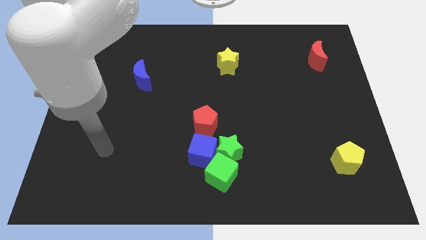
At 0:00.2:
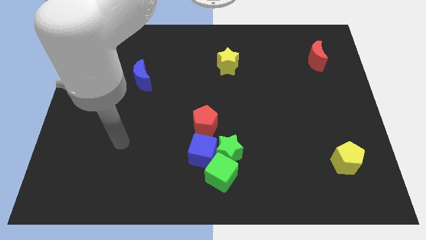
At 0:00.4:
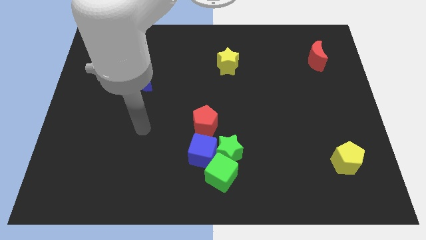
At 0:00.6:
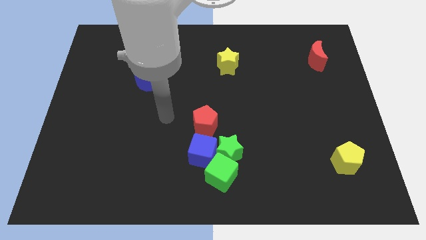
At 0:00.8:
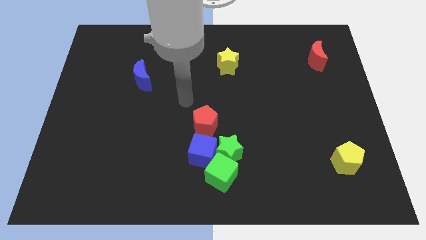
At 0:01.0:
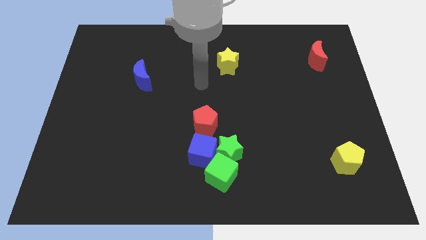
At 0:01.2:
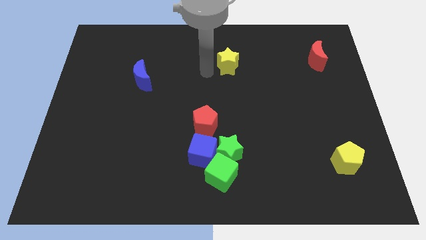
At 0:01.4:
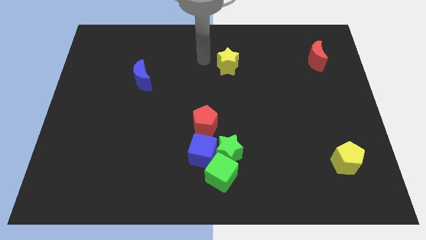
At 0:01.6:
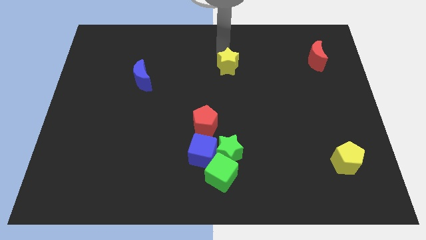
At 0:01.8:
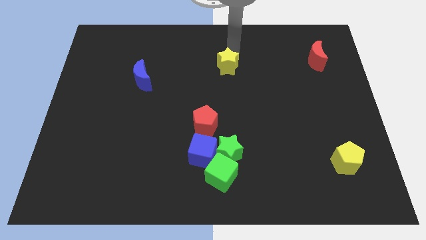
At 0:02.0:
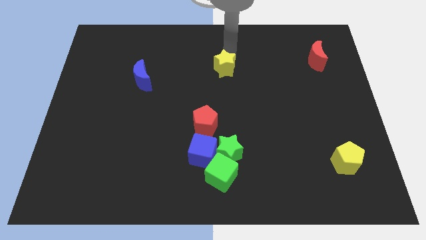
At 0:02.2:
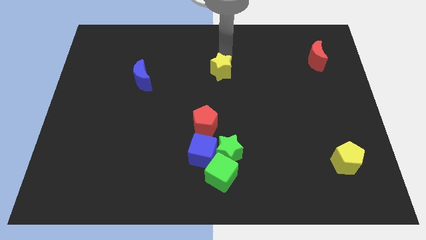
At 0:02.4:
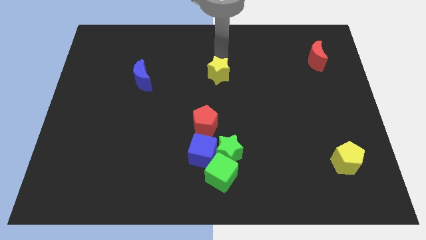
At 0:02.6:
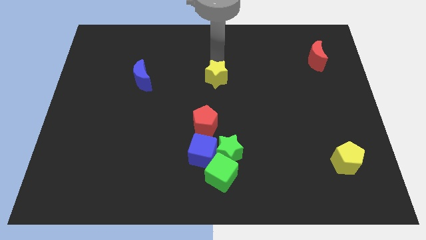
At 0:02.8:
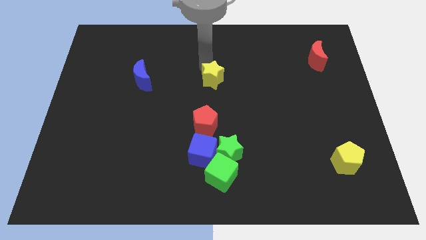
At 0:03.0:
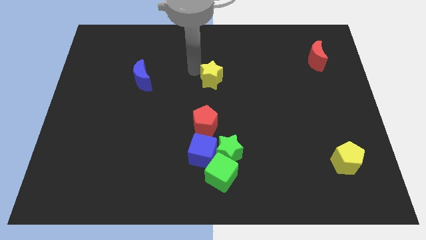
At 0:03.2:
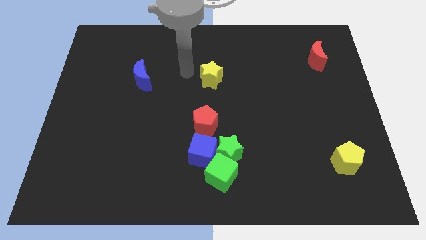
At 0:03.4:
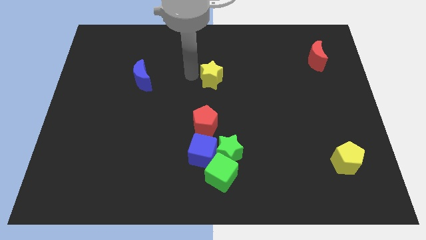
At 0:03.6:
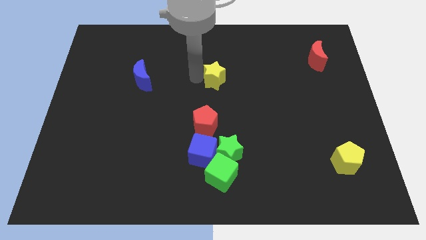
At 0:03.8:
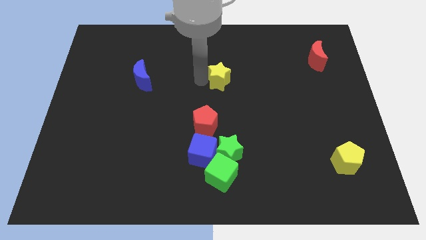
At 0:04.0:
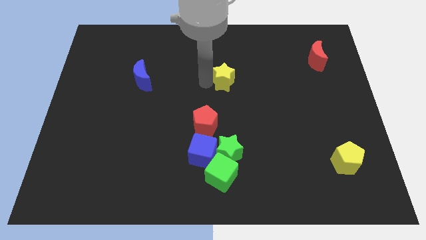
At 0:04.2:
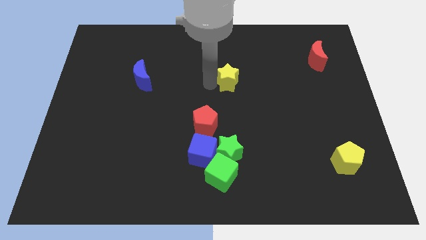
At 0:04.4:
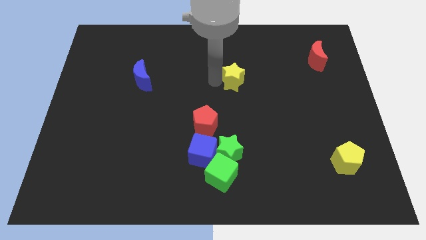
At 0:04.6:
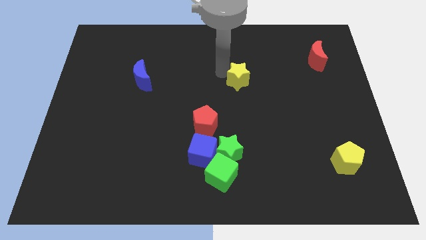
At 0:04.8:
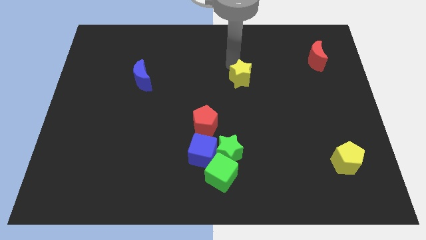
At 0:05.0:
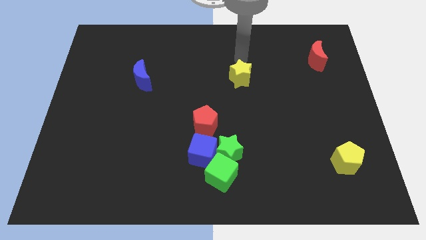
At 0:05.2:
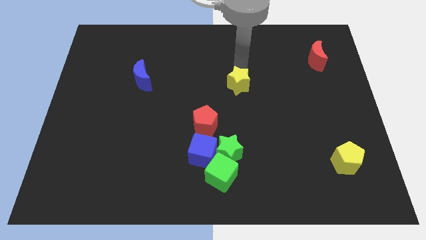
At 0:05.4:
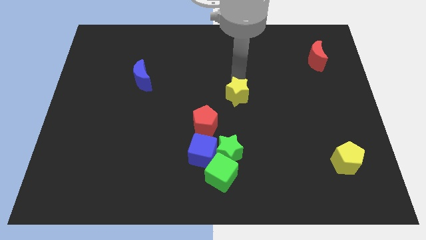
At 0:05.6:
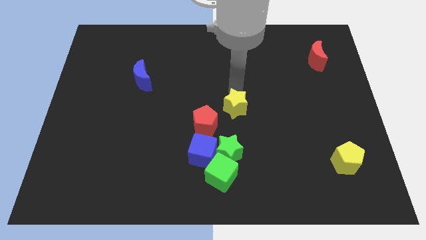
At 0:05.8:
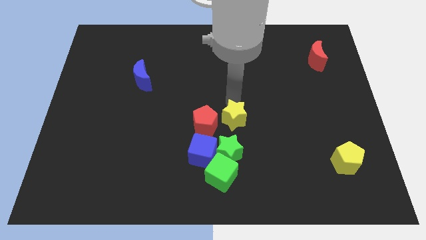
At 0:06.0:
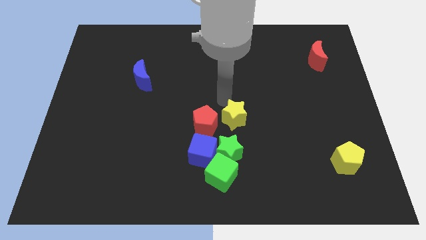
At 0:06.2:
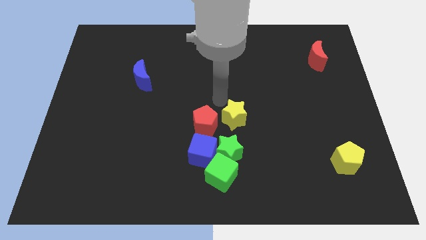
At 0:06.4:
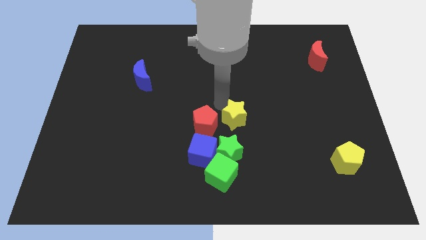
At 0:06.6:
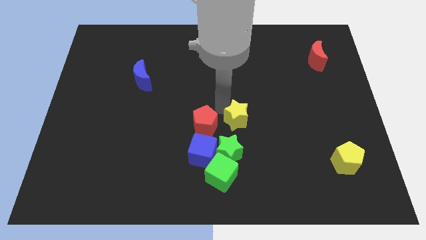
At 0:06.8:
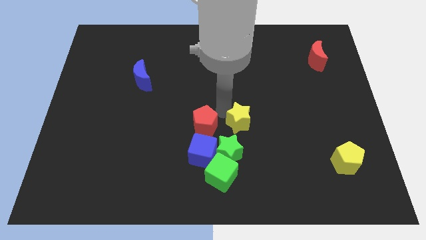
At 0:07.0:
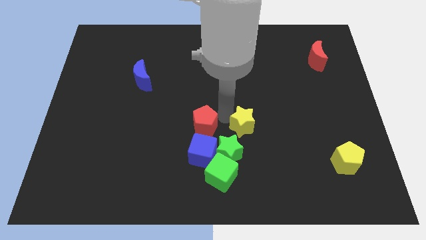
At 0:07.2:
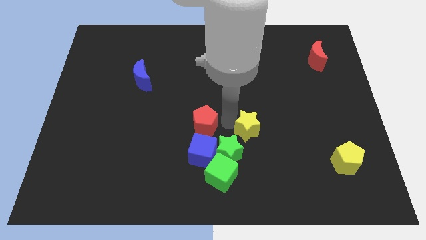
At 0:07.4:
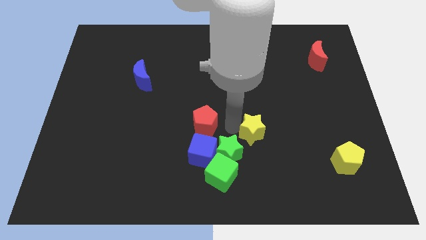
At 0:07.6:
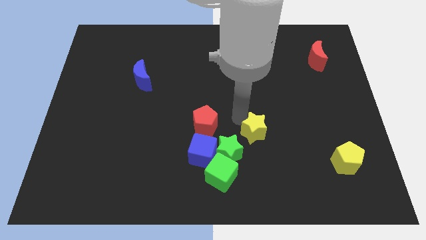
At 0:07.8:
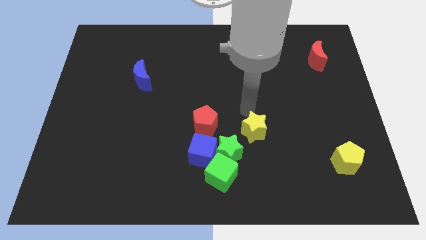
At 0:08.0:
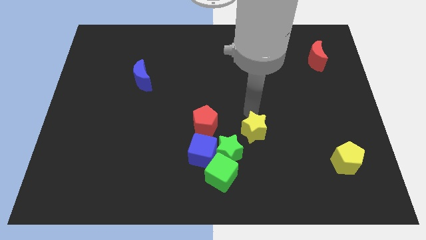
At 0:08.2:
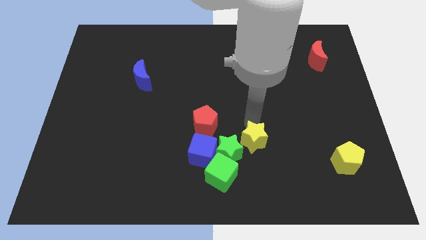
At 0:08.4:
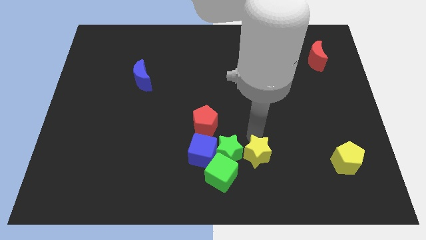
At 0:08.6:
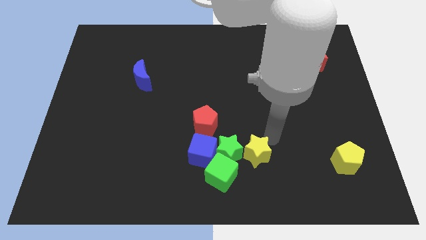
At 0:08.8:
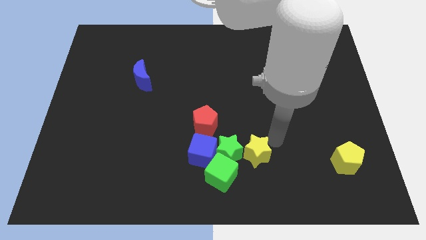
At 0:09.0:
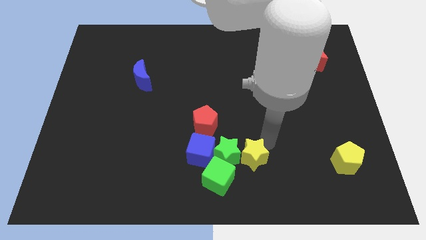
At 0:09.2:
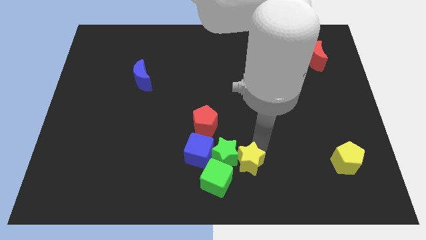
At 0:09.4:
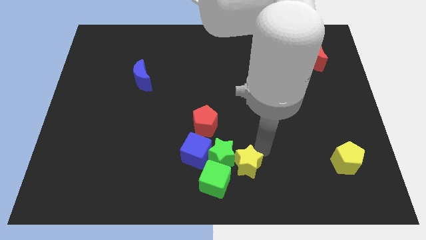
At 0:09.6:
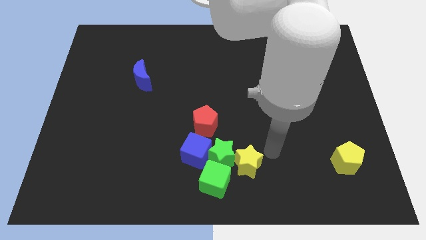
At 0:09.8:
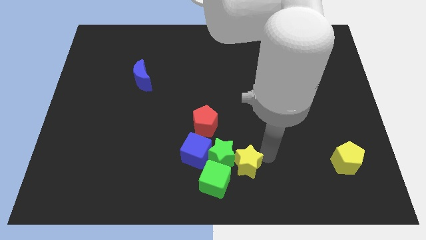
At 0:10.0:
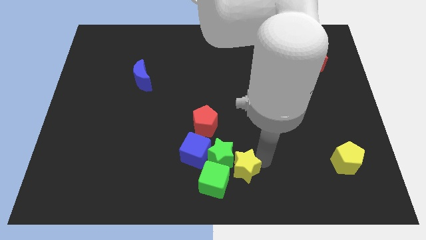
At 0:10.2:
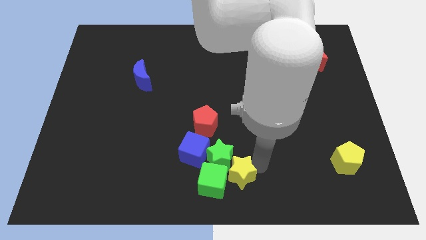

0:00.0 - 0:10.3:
put the yellow star next to the green cube

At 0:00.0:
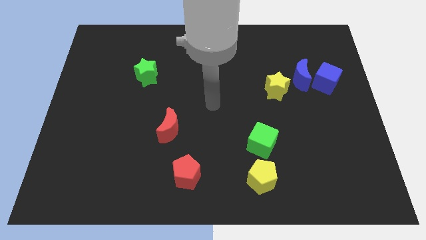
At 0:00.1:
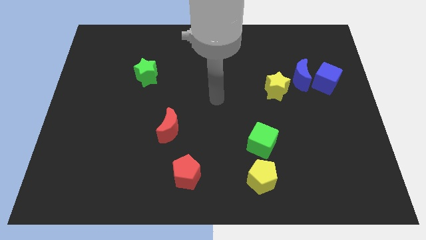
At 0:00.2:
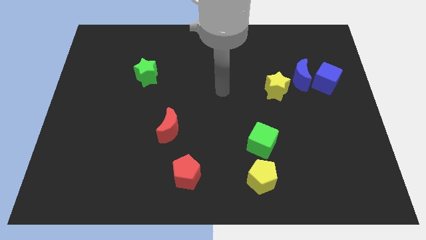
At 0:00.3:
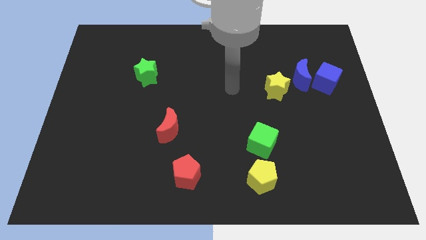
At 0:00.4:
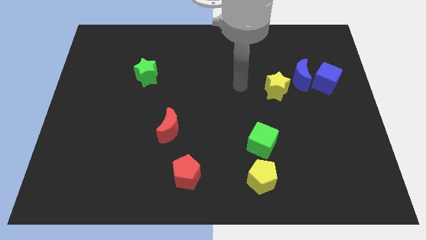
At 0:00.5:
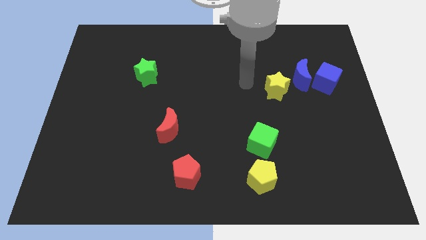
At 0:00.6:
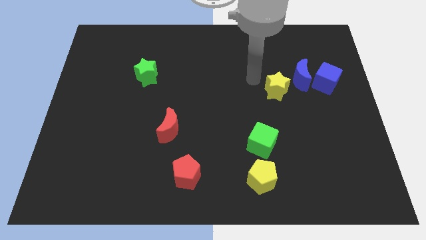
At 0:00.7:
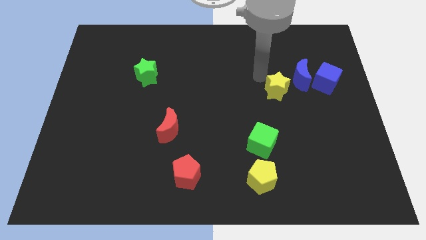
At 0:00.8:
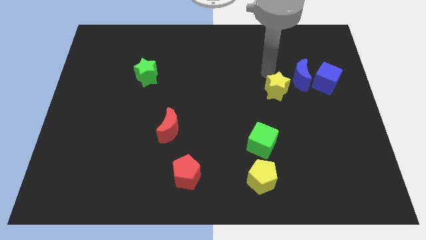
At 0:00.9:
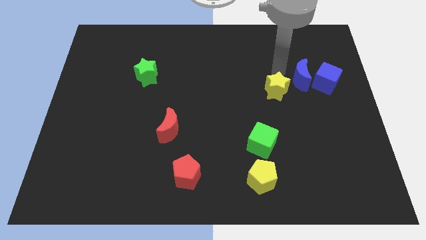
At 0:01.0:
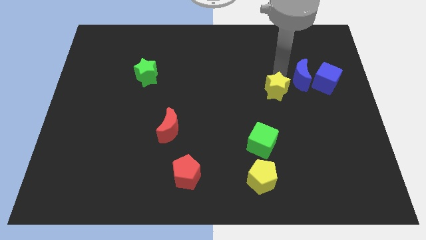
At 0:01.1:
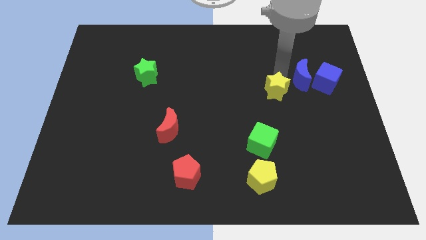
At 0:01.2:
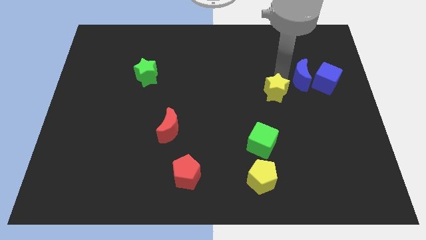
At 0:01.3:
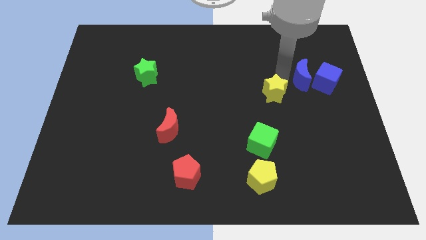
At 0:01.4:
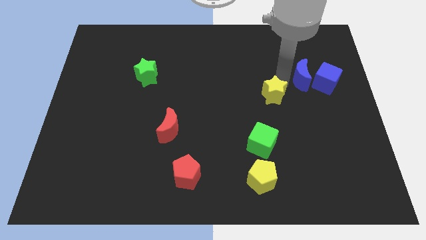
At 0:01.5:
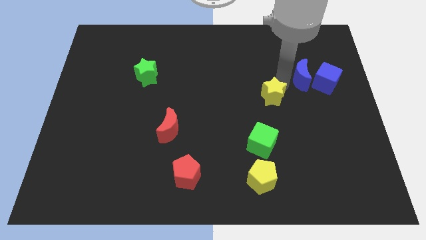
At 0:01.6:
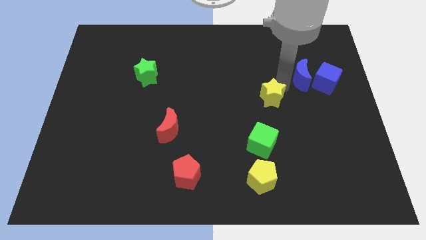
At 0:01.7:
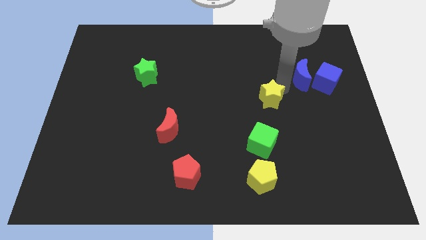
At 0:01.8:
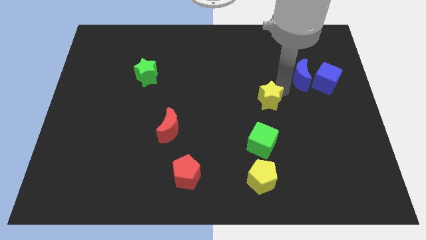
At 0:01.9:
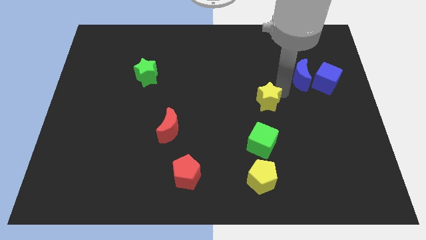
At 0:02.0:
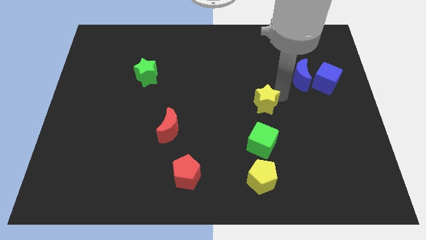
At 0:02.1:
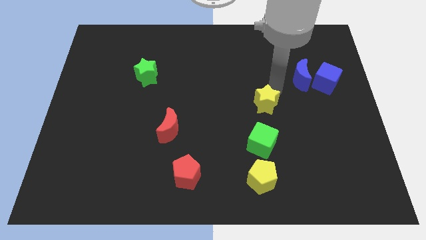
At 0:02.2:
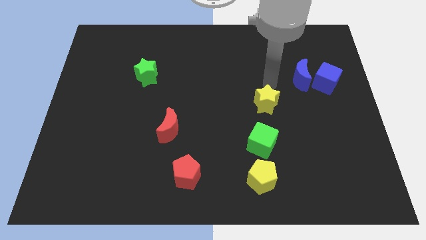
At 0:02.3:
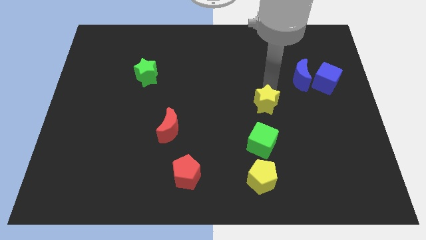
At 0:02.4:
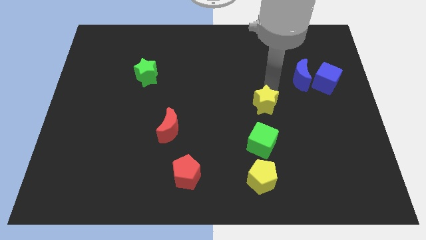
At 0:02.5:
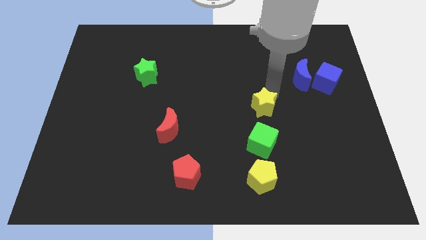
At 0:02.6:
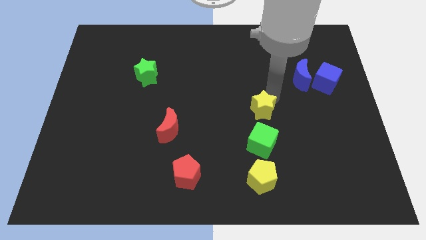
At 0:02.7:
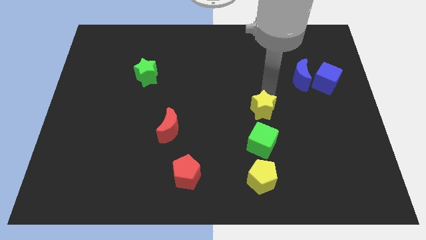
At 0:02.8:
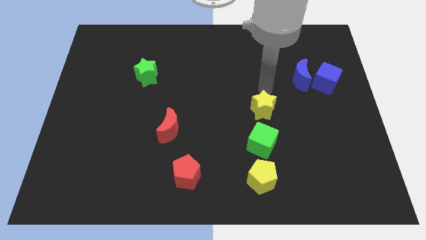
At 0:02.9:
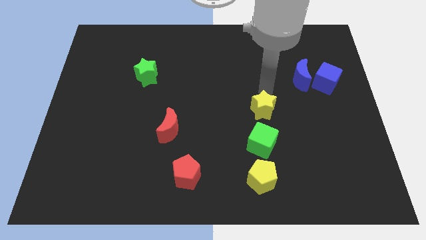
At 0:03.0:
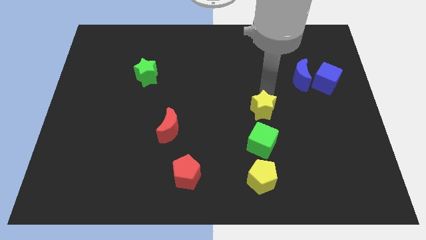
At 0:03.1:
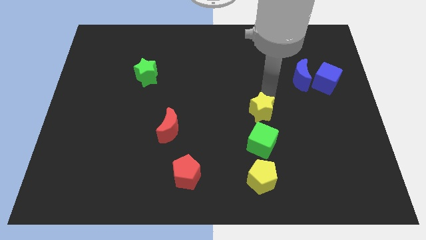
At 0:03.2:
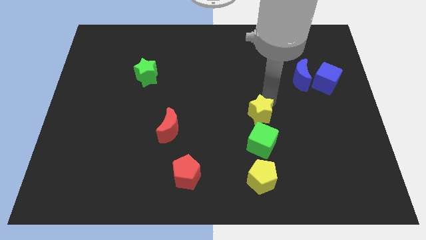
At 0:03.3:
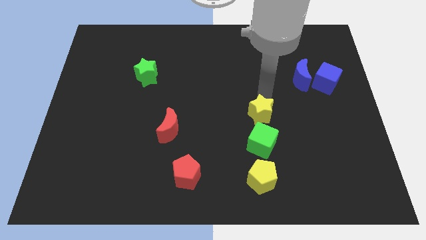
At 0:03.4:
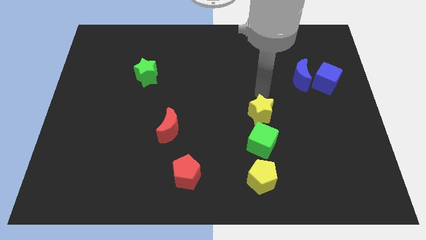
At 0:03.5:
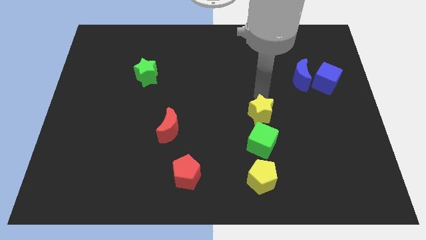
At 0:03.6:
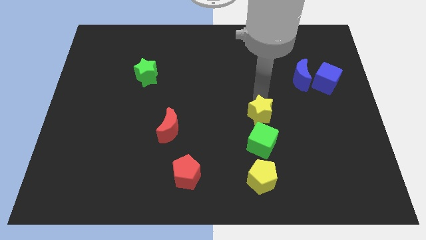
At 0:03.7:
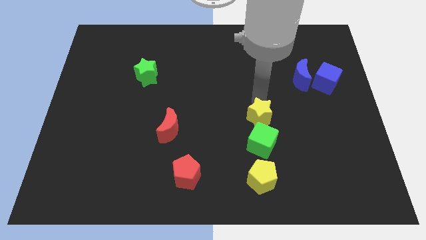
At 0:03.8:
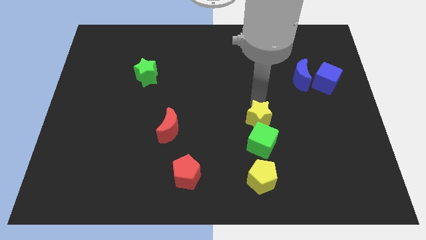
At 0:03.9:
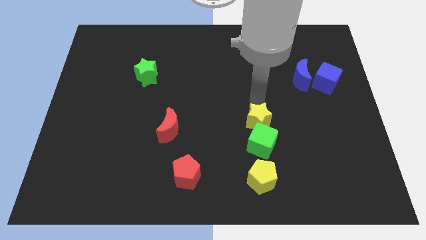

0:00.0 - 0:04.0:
slide the yellow star close to the green cube
